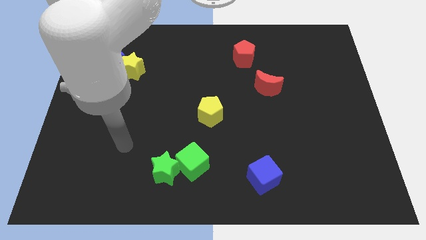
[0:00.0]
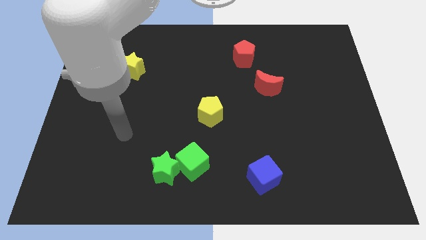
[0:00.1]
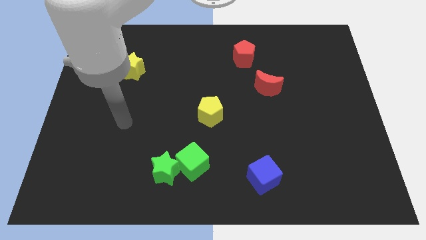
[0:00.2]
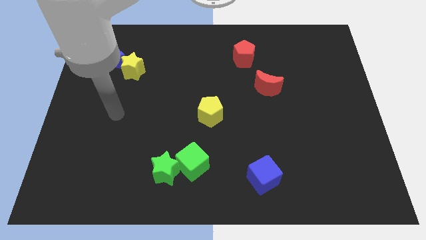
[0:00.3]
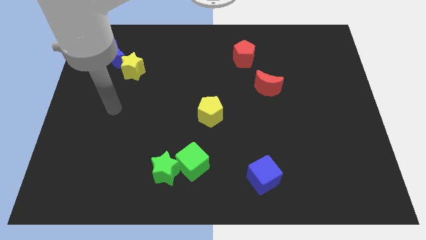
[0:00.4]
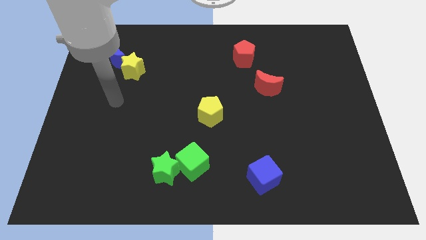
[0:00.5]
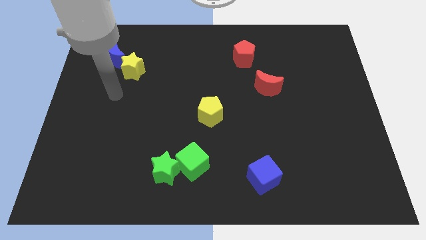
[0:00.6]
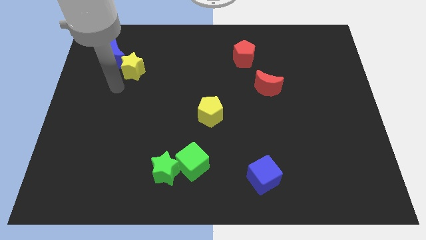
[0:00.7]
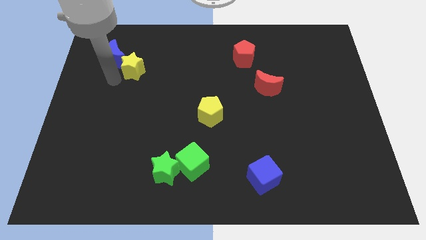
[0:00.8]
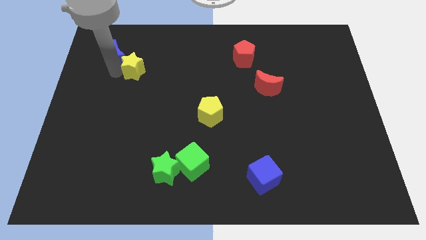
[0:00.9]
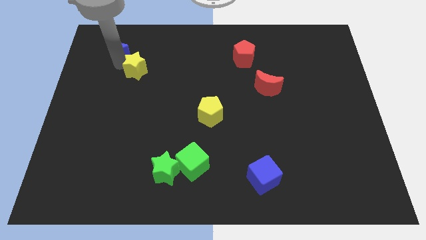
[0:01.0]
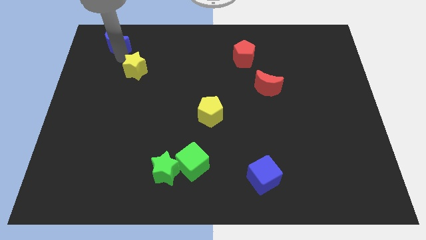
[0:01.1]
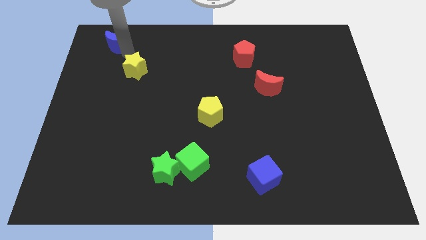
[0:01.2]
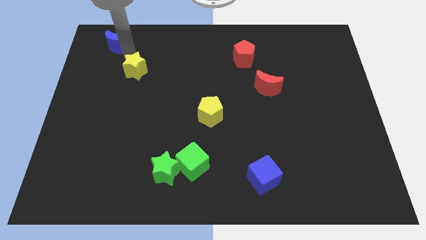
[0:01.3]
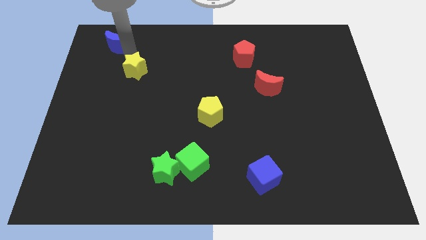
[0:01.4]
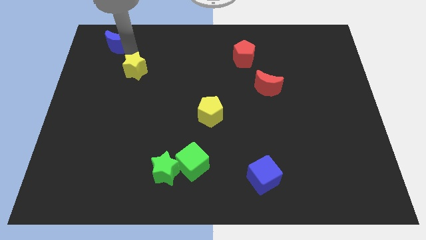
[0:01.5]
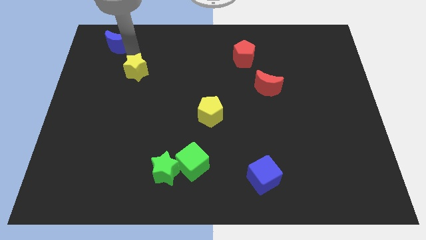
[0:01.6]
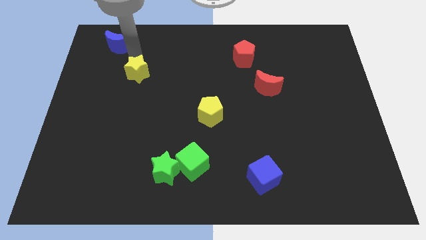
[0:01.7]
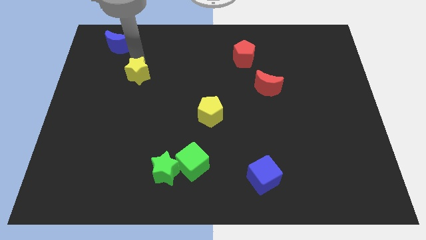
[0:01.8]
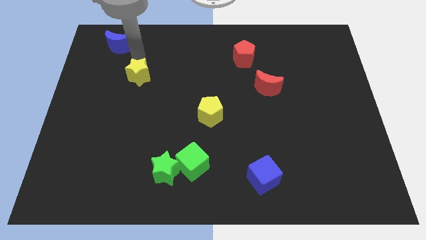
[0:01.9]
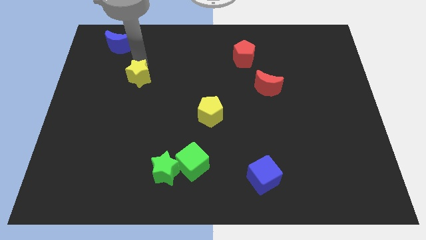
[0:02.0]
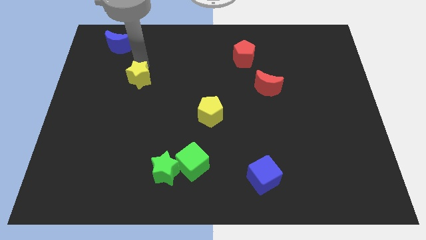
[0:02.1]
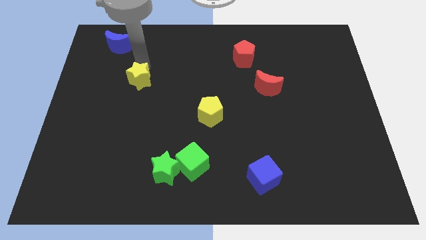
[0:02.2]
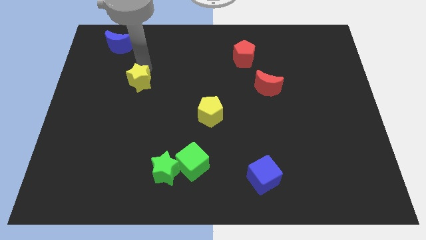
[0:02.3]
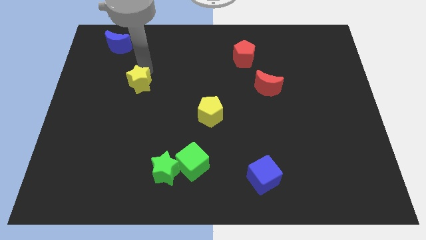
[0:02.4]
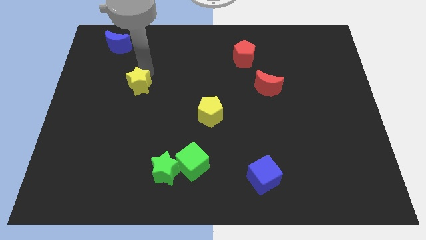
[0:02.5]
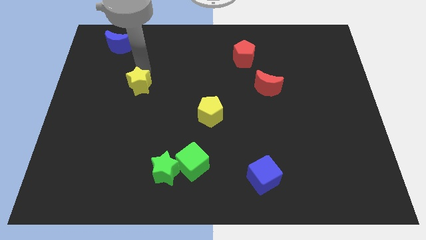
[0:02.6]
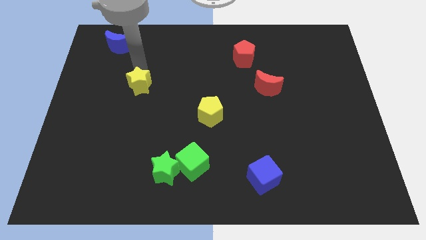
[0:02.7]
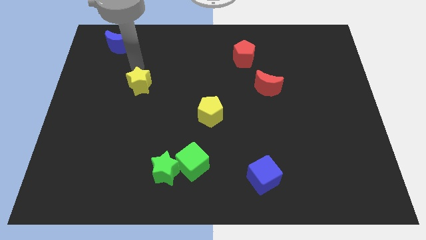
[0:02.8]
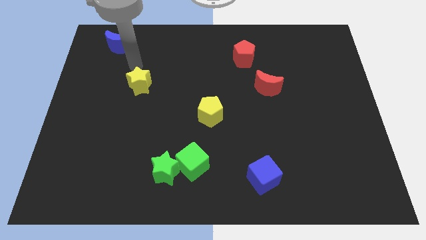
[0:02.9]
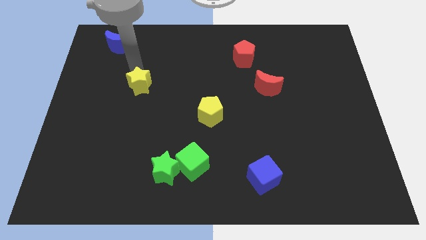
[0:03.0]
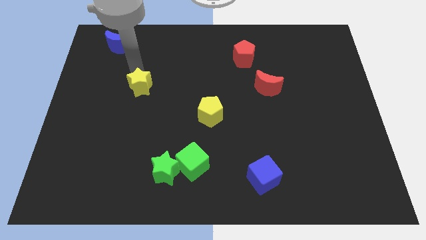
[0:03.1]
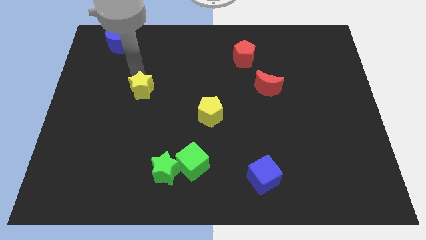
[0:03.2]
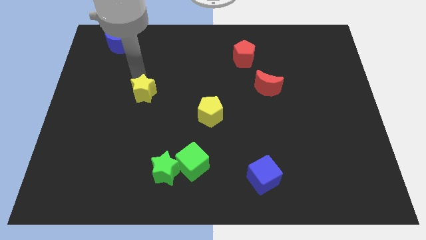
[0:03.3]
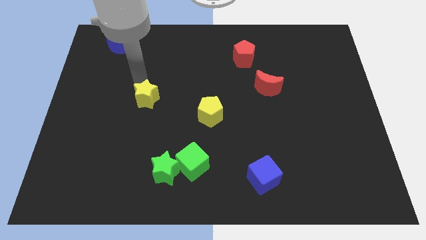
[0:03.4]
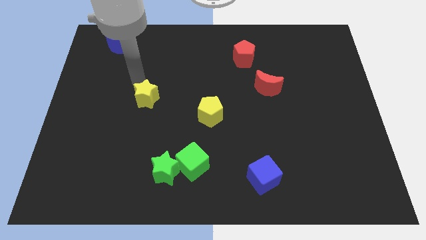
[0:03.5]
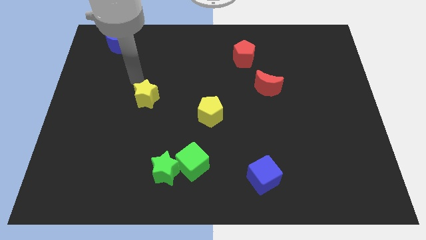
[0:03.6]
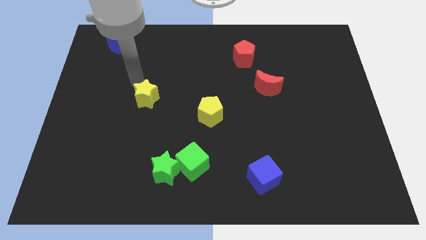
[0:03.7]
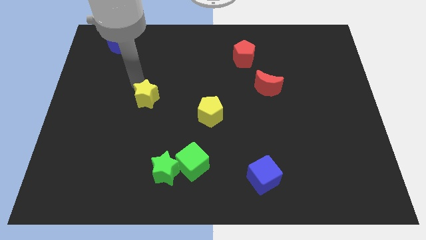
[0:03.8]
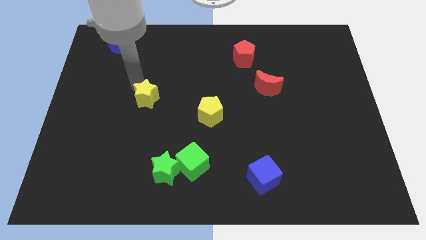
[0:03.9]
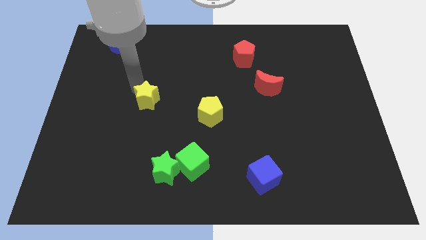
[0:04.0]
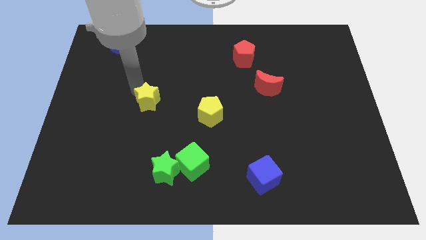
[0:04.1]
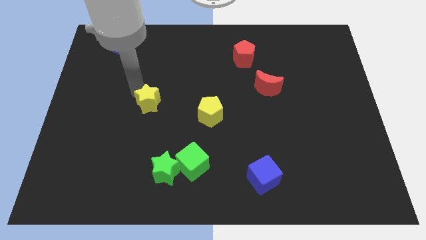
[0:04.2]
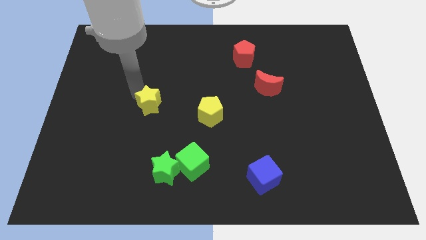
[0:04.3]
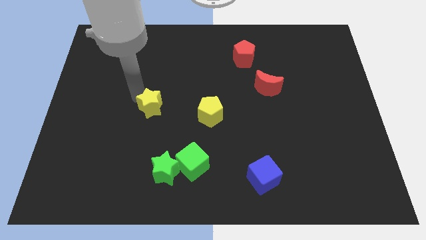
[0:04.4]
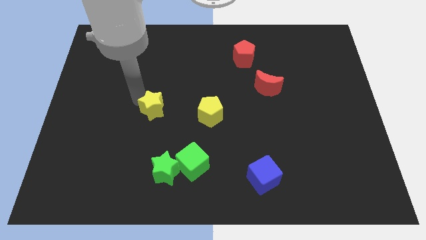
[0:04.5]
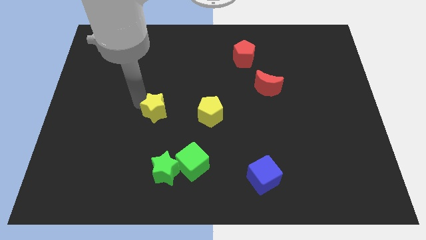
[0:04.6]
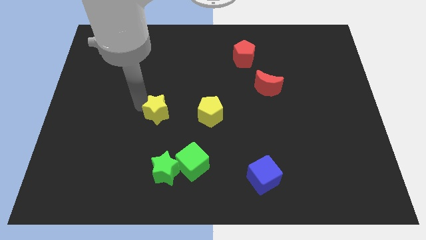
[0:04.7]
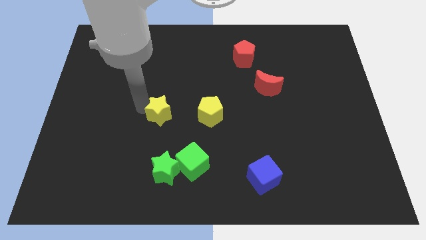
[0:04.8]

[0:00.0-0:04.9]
put the yellow star to the top side of the green star

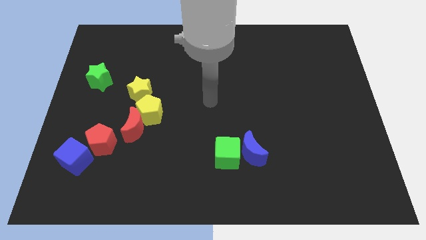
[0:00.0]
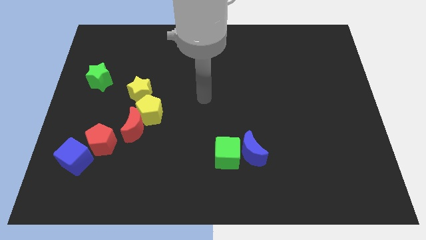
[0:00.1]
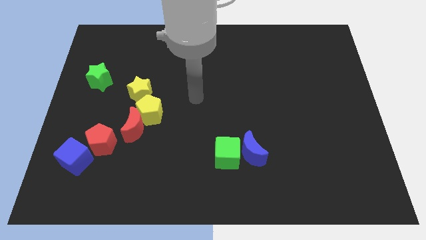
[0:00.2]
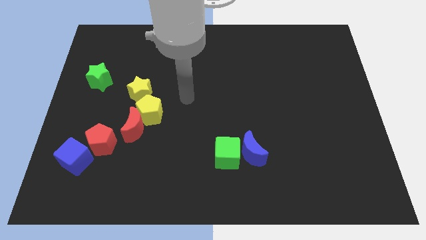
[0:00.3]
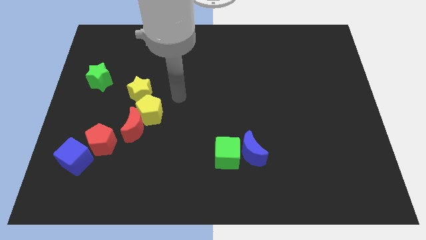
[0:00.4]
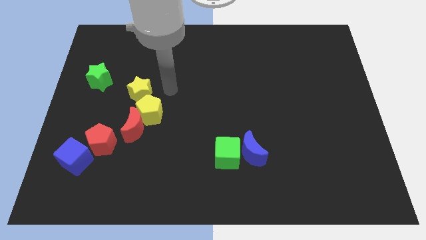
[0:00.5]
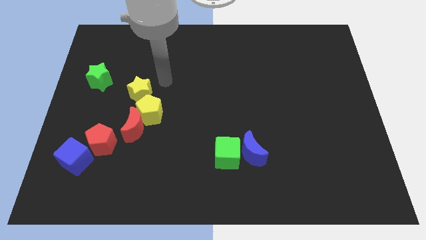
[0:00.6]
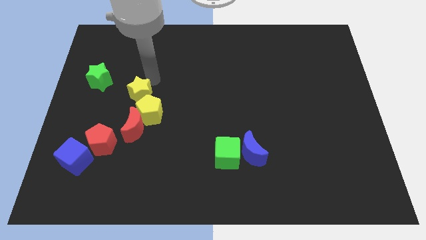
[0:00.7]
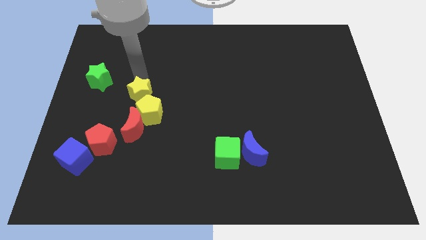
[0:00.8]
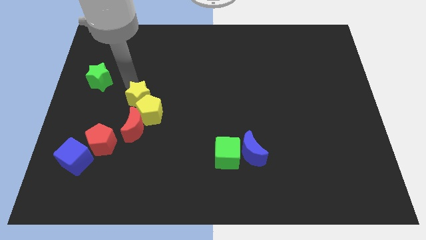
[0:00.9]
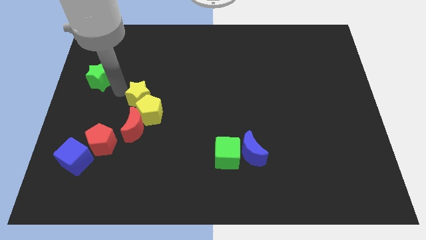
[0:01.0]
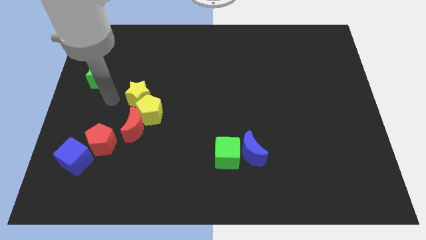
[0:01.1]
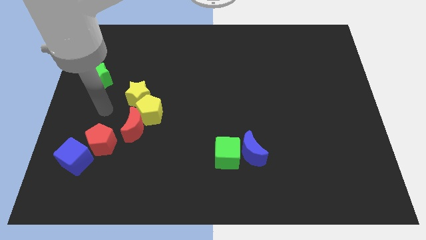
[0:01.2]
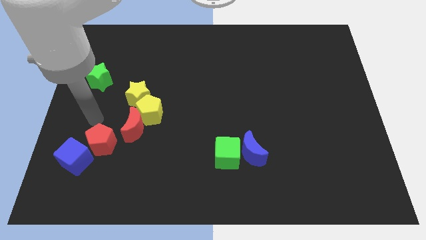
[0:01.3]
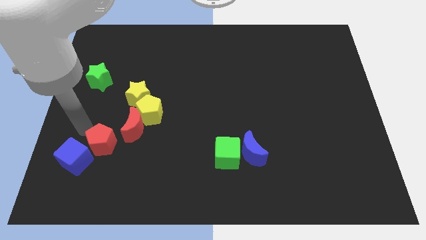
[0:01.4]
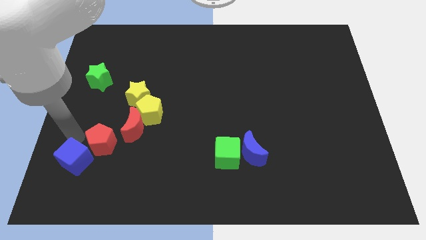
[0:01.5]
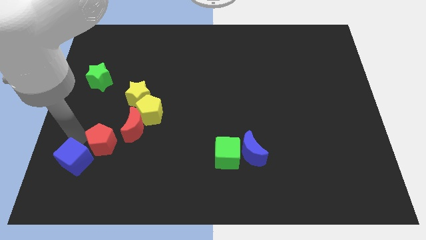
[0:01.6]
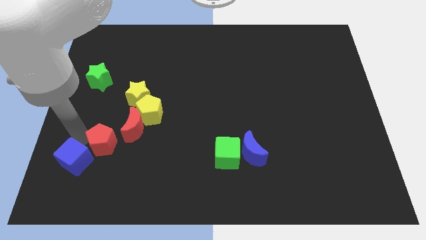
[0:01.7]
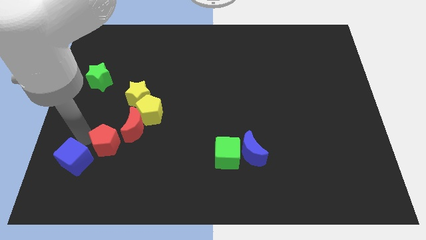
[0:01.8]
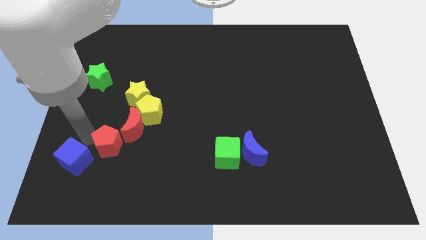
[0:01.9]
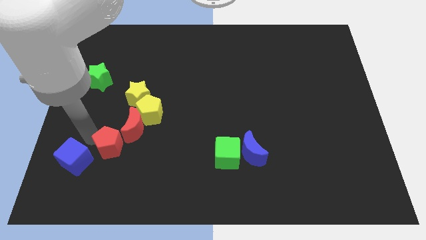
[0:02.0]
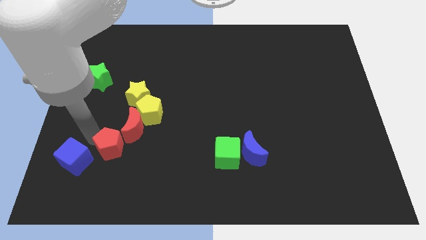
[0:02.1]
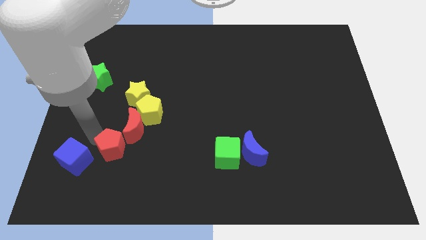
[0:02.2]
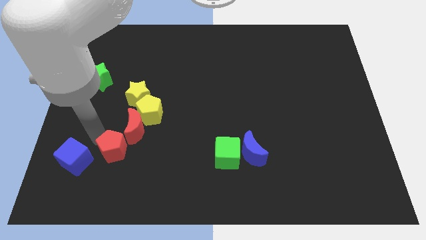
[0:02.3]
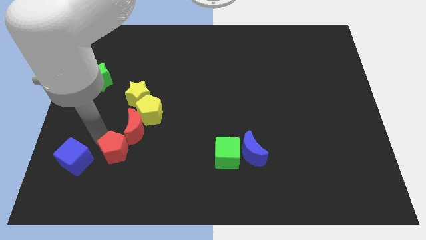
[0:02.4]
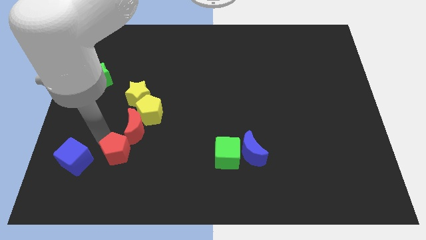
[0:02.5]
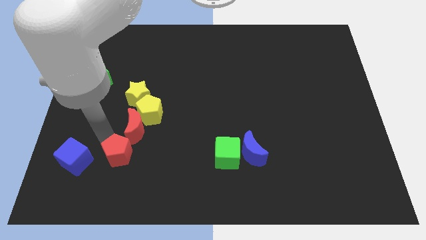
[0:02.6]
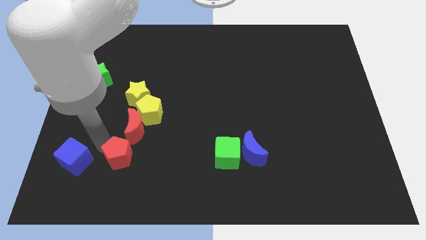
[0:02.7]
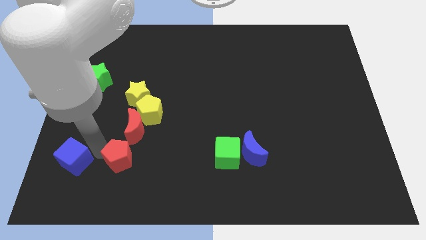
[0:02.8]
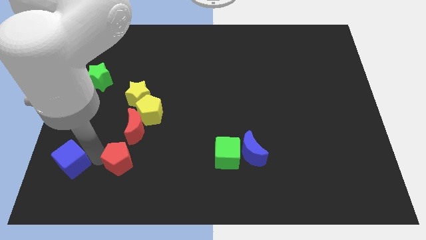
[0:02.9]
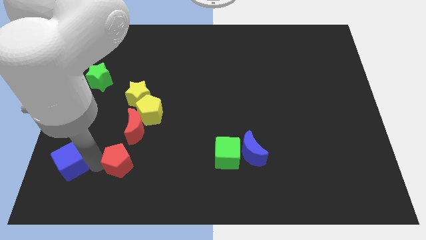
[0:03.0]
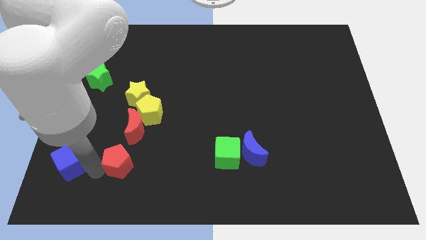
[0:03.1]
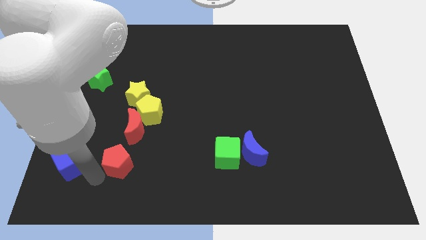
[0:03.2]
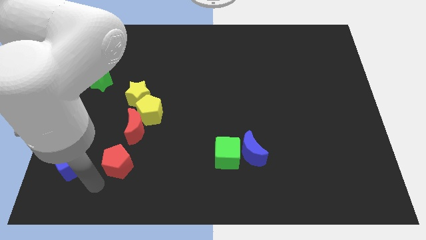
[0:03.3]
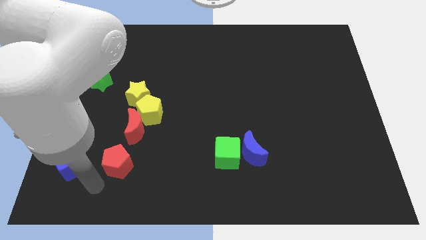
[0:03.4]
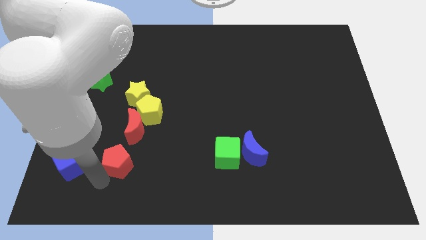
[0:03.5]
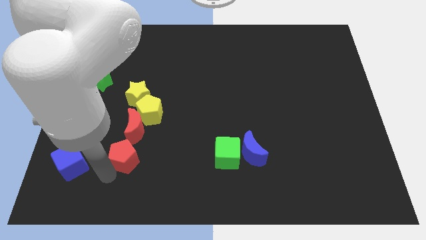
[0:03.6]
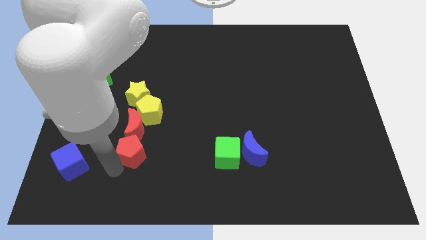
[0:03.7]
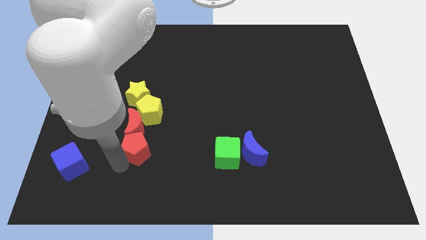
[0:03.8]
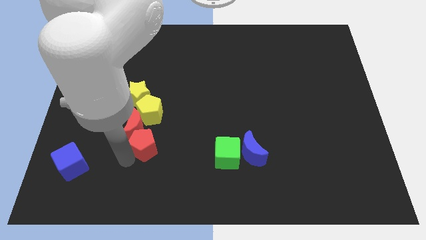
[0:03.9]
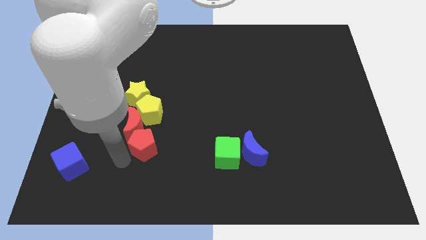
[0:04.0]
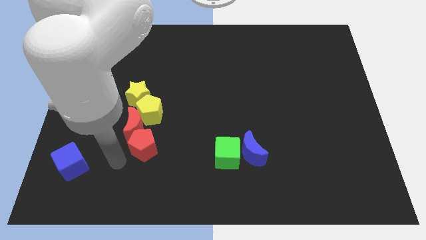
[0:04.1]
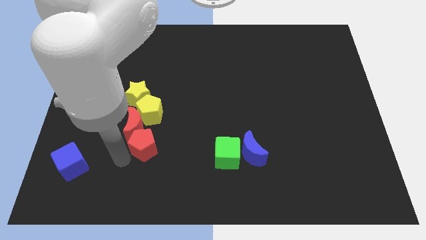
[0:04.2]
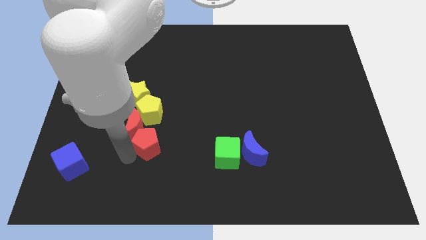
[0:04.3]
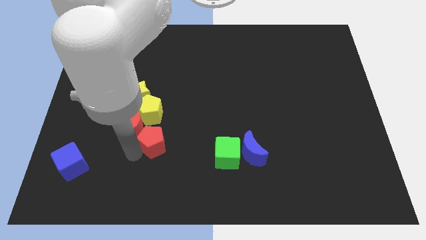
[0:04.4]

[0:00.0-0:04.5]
slide the red pentagon just right of the red moon
